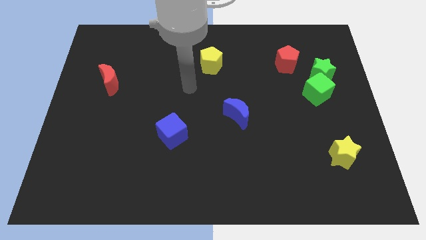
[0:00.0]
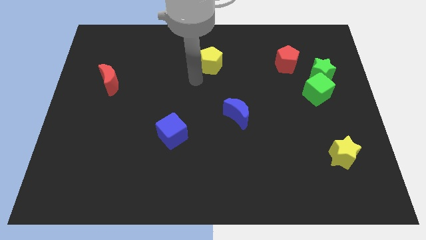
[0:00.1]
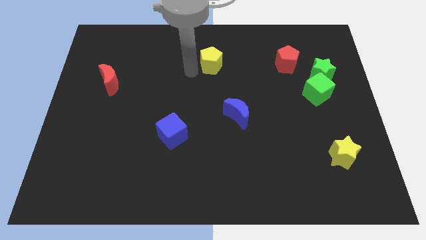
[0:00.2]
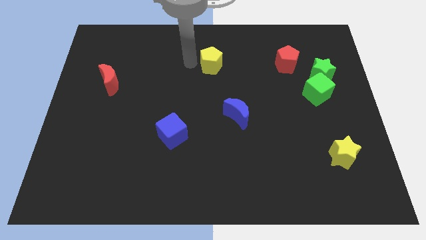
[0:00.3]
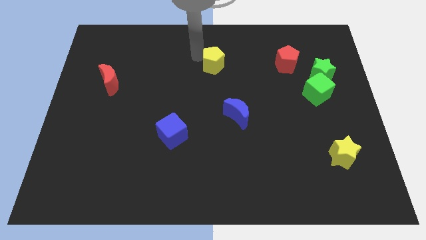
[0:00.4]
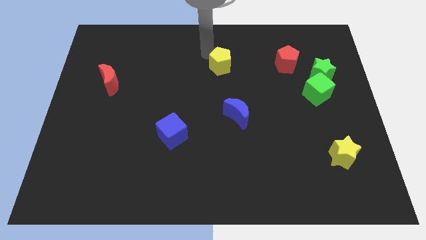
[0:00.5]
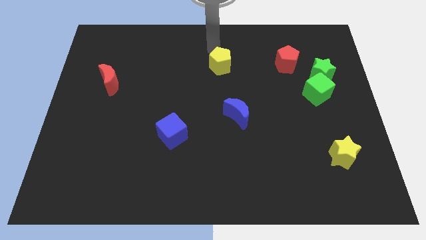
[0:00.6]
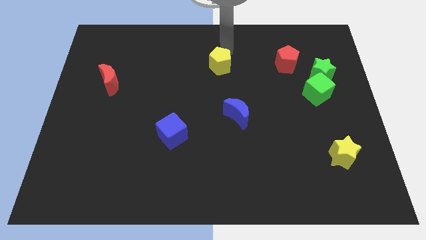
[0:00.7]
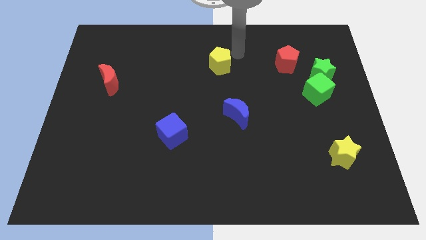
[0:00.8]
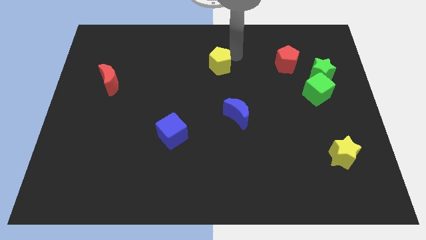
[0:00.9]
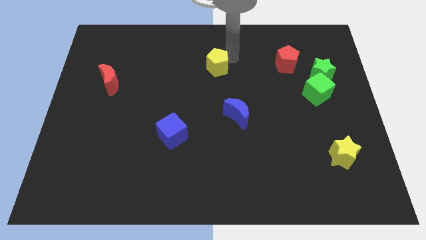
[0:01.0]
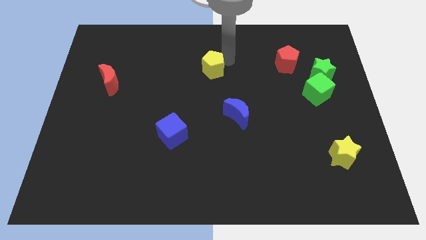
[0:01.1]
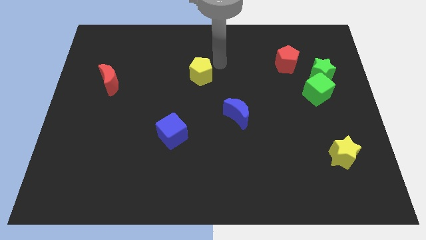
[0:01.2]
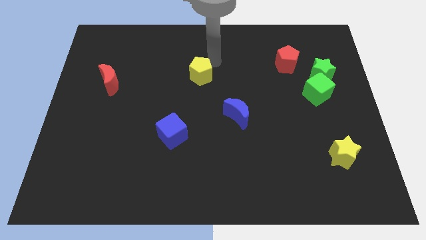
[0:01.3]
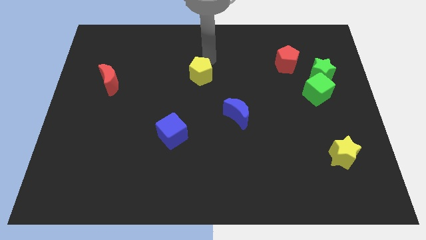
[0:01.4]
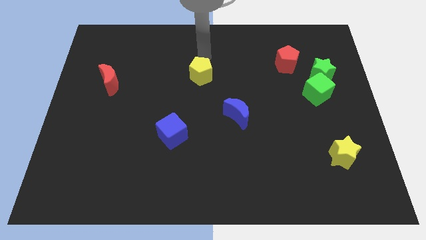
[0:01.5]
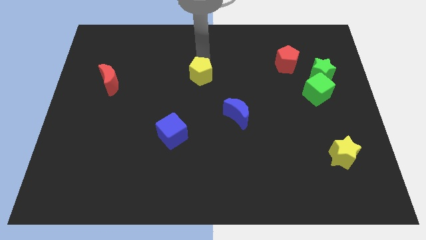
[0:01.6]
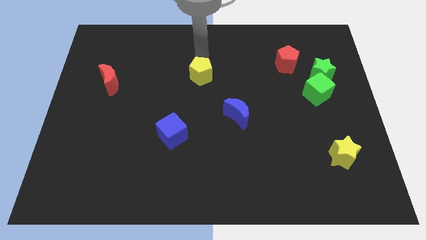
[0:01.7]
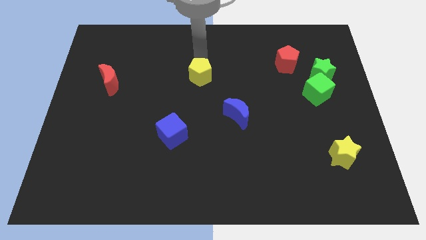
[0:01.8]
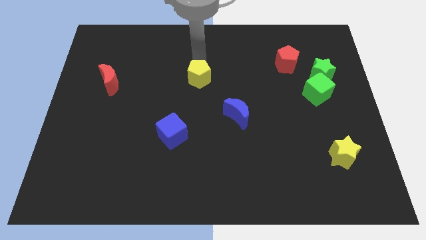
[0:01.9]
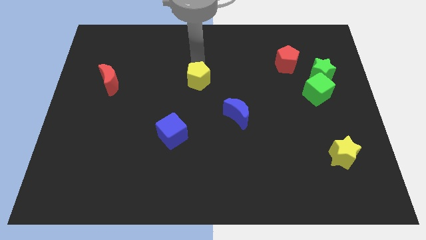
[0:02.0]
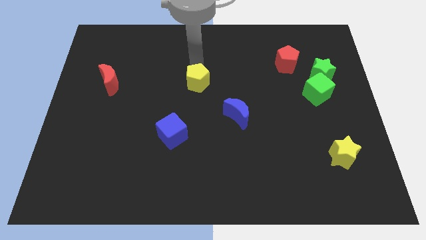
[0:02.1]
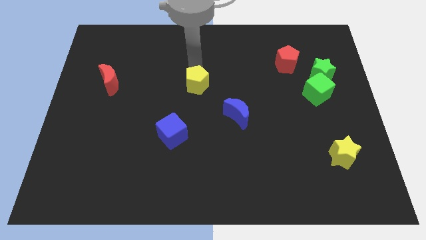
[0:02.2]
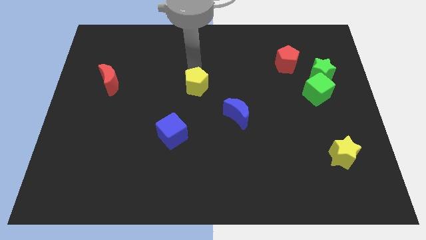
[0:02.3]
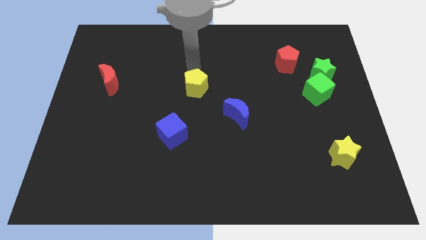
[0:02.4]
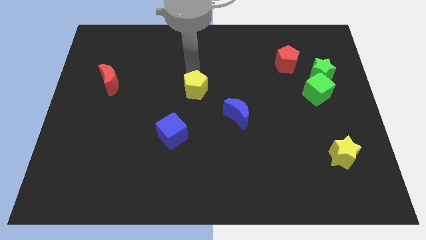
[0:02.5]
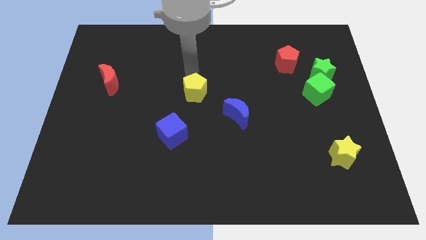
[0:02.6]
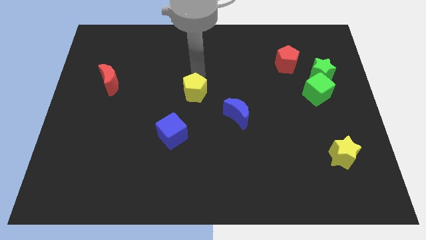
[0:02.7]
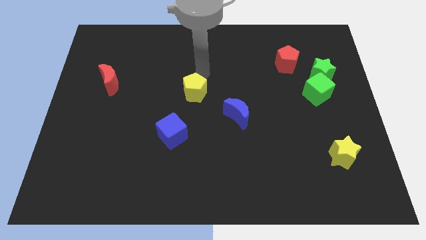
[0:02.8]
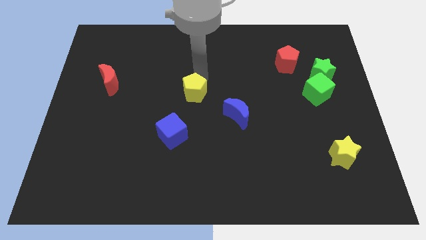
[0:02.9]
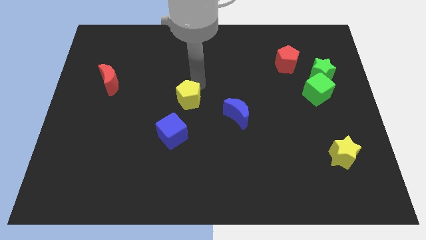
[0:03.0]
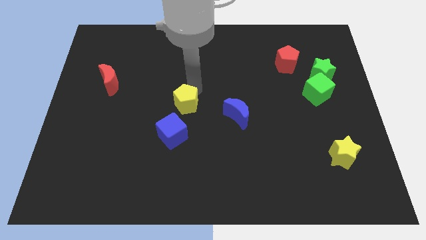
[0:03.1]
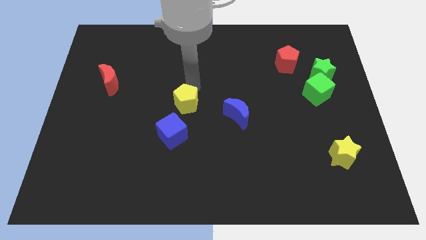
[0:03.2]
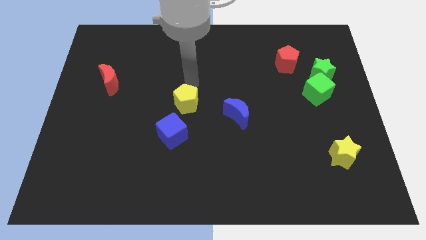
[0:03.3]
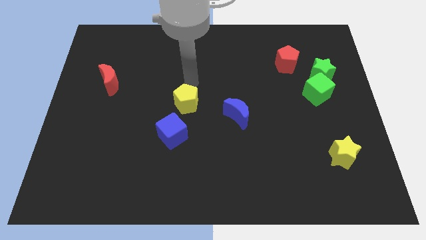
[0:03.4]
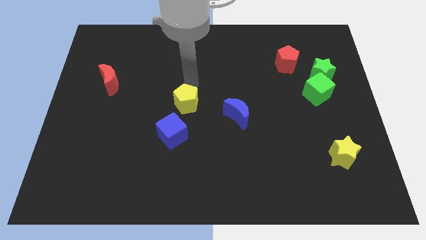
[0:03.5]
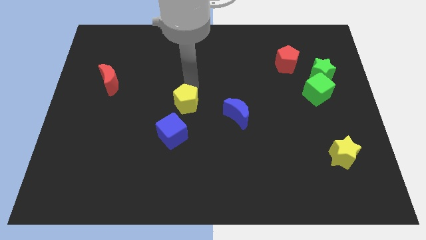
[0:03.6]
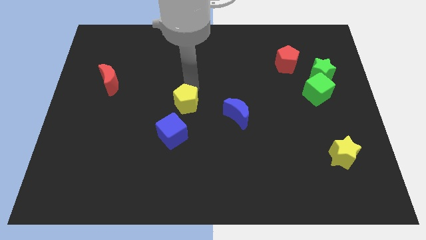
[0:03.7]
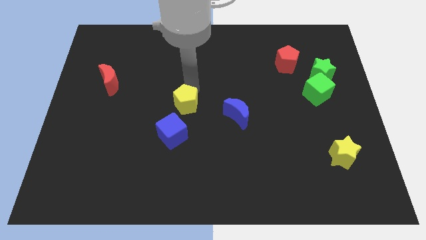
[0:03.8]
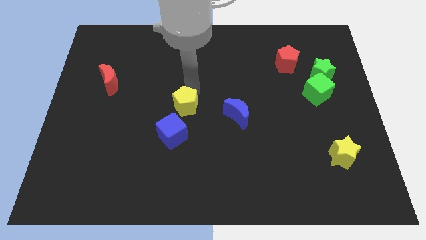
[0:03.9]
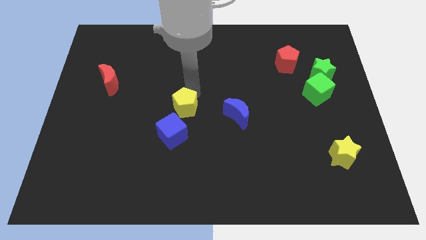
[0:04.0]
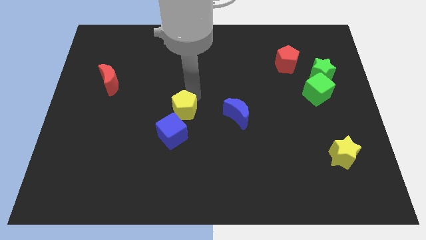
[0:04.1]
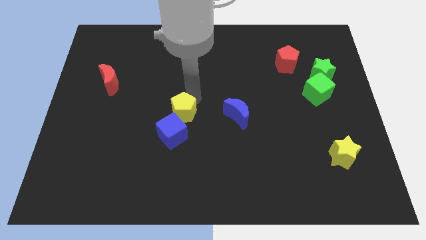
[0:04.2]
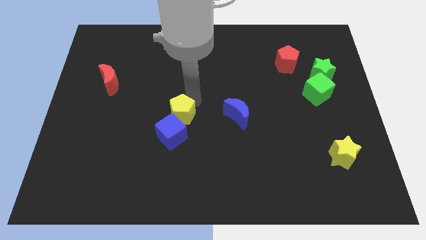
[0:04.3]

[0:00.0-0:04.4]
move the yellow pentagon close to the blue cube

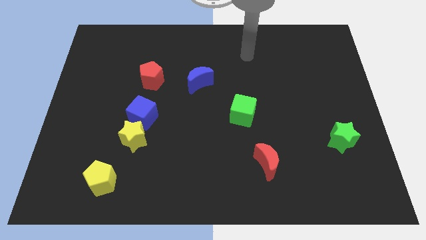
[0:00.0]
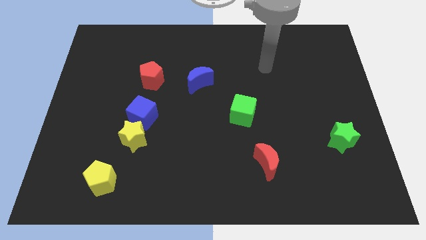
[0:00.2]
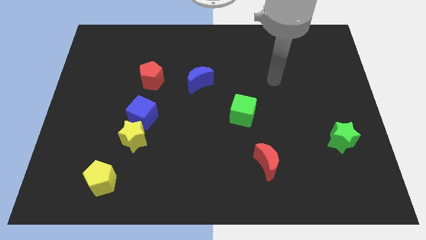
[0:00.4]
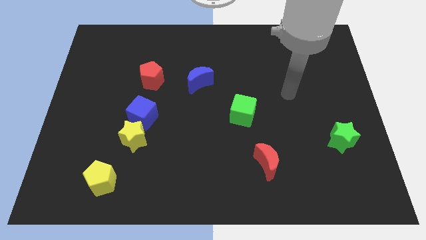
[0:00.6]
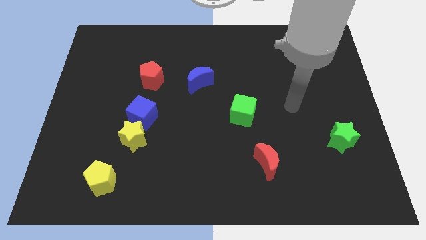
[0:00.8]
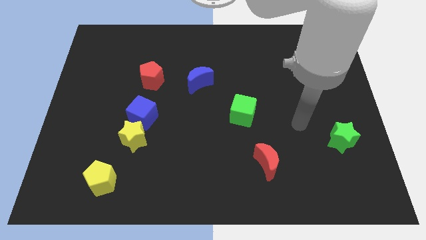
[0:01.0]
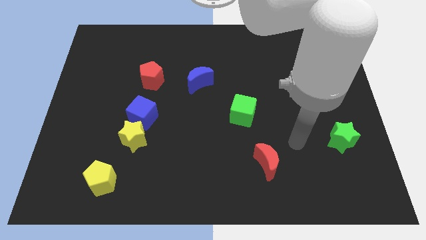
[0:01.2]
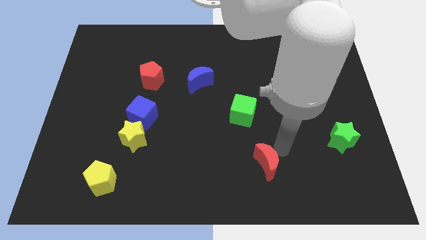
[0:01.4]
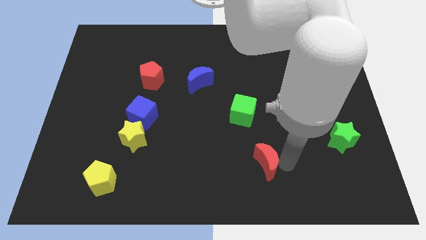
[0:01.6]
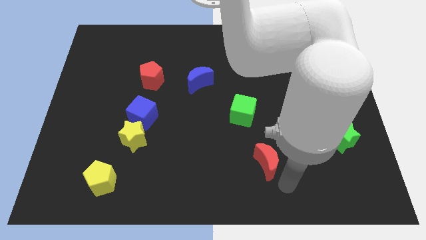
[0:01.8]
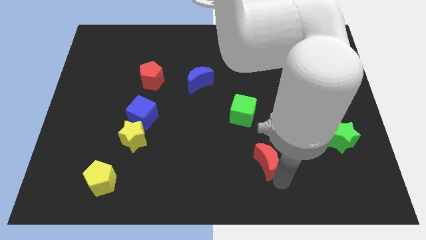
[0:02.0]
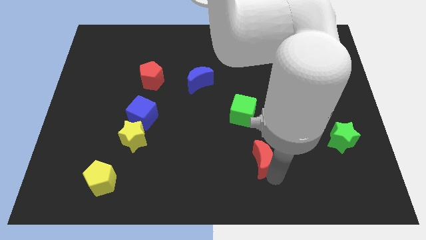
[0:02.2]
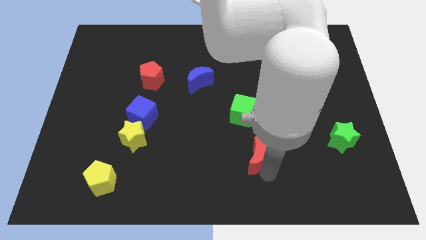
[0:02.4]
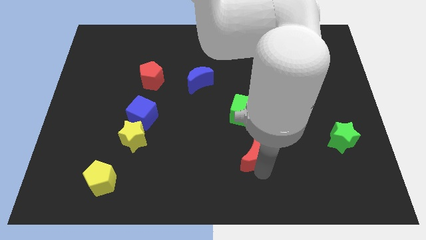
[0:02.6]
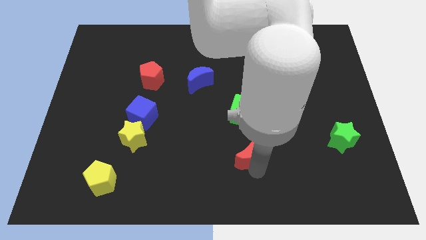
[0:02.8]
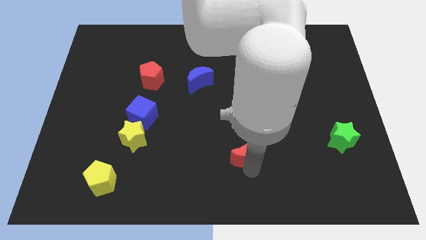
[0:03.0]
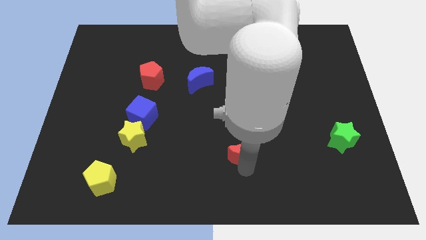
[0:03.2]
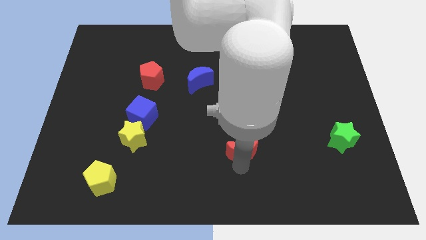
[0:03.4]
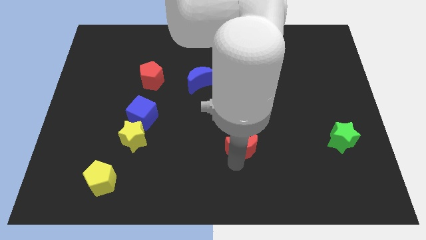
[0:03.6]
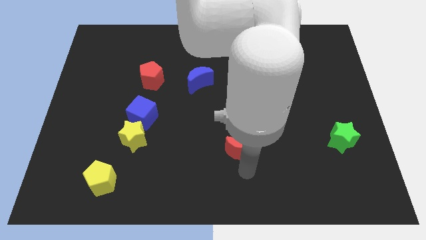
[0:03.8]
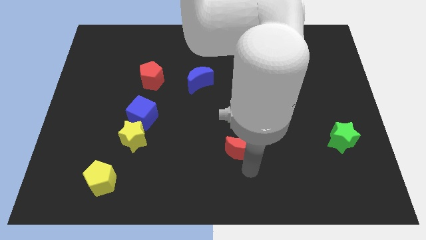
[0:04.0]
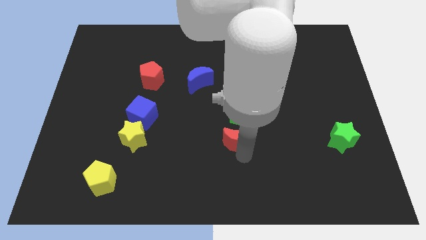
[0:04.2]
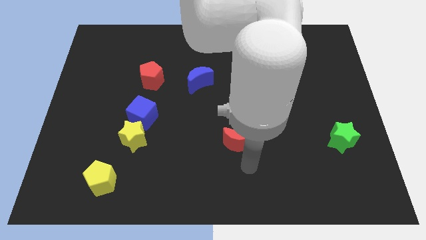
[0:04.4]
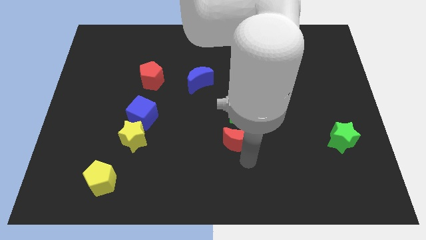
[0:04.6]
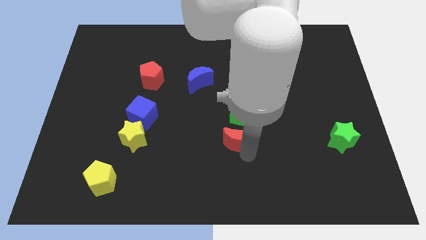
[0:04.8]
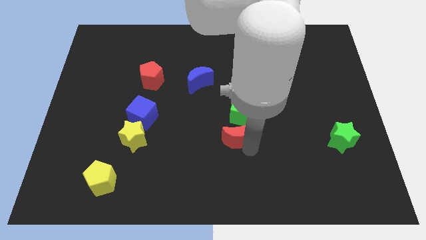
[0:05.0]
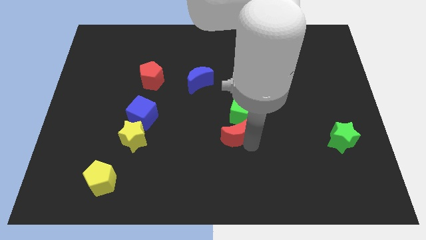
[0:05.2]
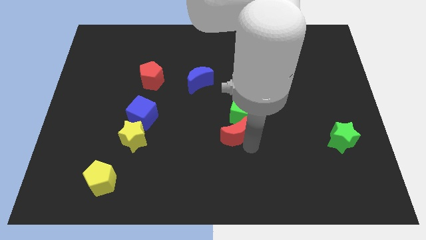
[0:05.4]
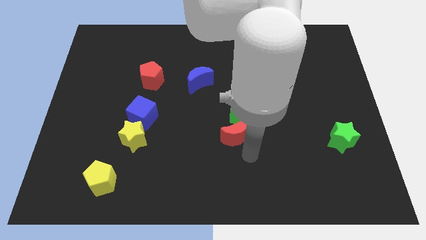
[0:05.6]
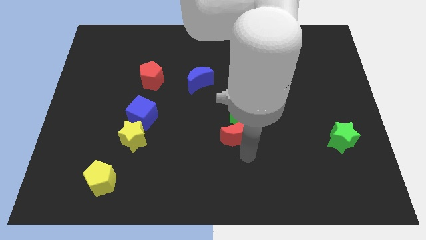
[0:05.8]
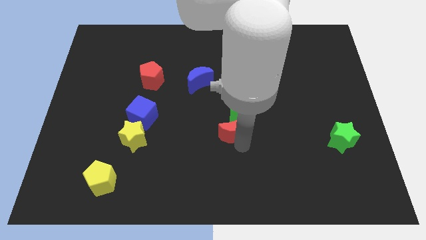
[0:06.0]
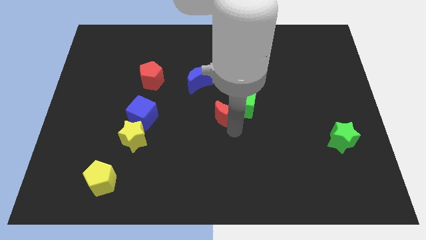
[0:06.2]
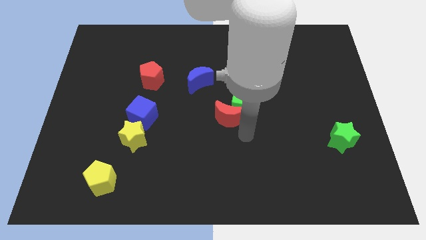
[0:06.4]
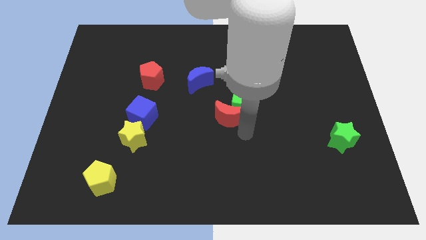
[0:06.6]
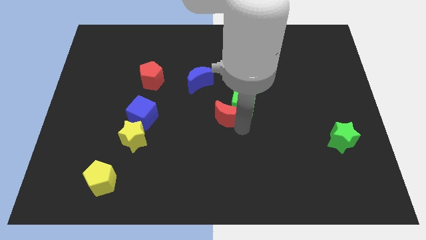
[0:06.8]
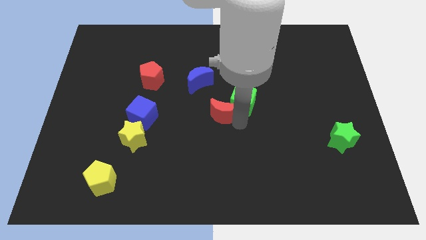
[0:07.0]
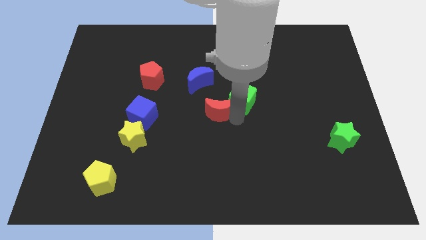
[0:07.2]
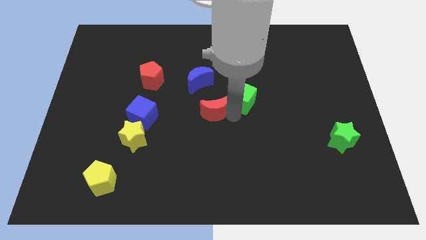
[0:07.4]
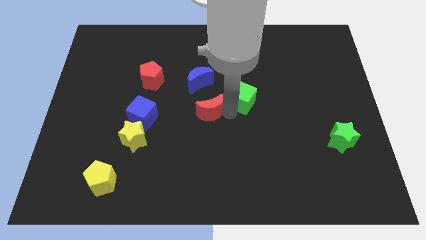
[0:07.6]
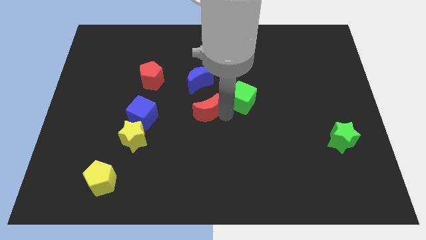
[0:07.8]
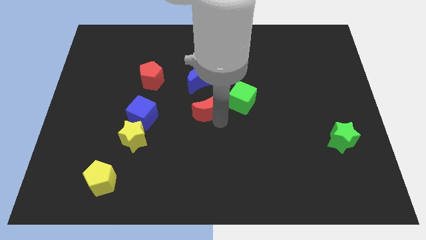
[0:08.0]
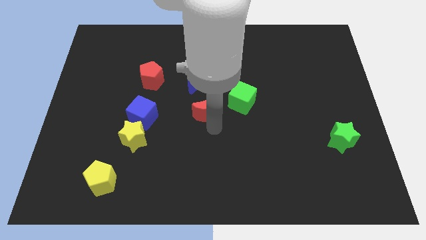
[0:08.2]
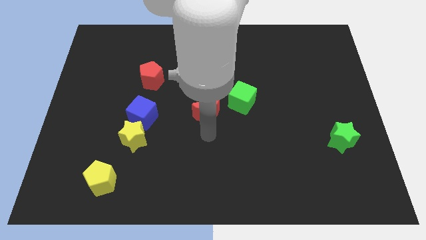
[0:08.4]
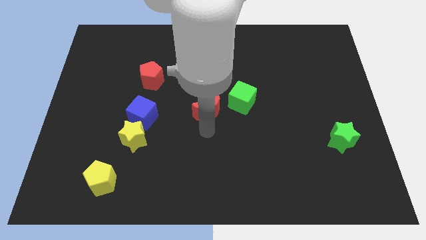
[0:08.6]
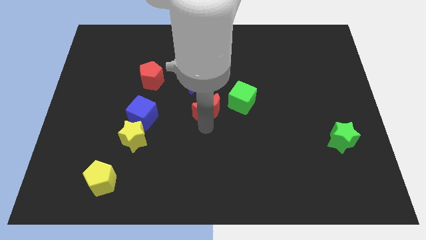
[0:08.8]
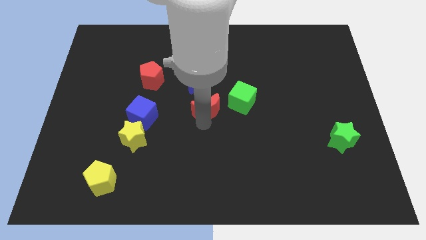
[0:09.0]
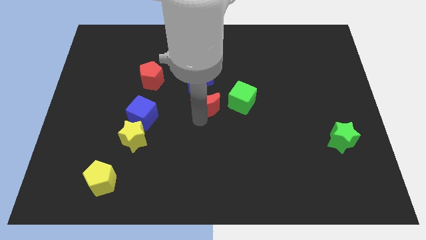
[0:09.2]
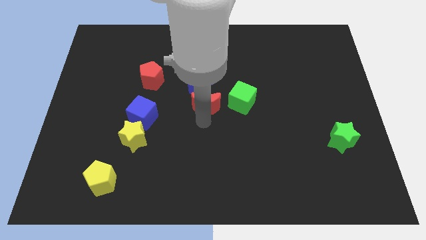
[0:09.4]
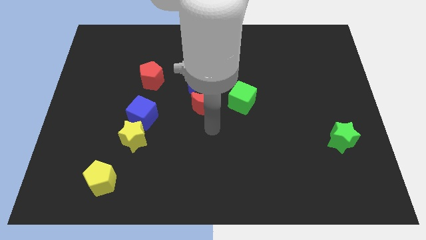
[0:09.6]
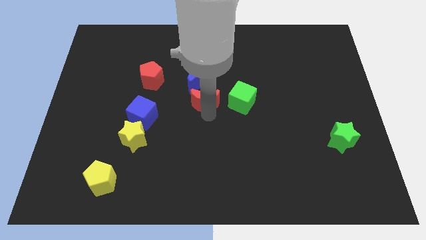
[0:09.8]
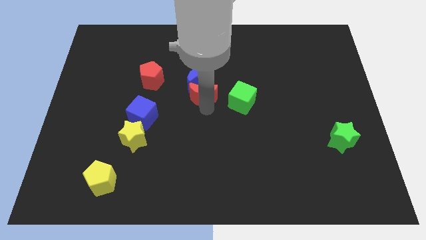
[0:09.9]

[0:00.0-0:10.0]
slide the red moon to the blue moon
